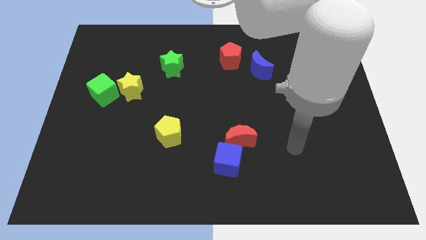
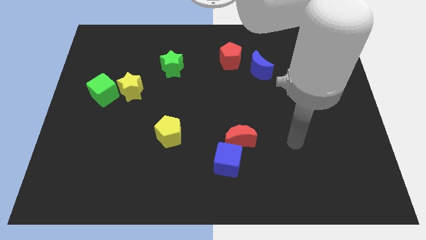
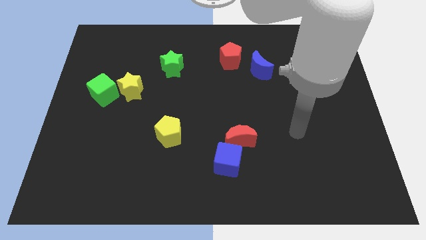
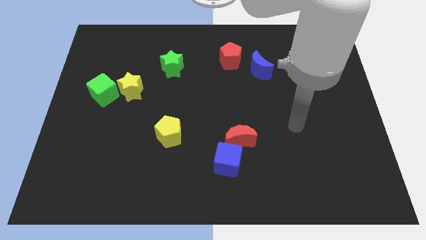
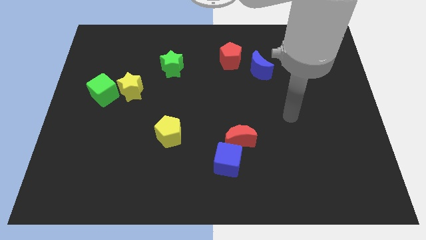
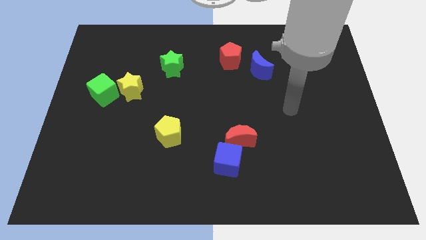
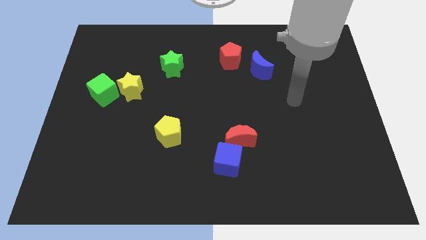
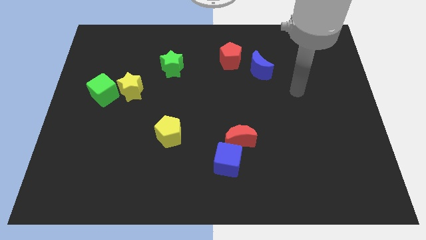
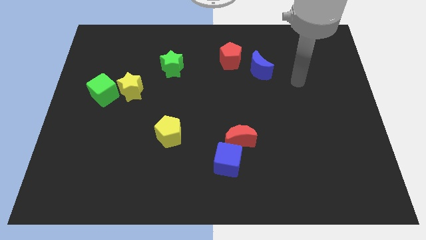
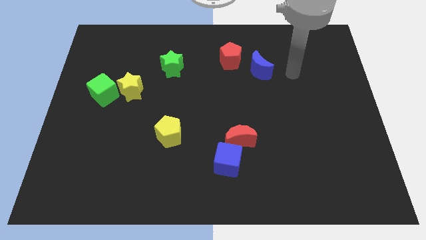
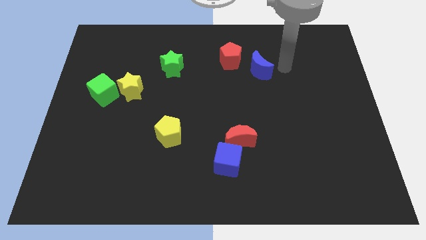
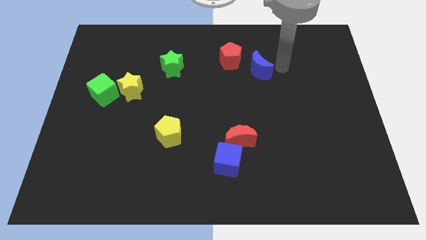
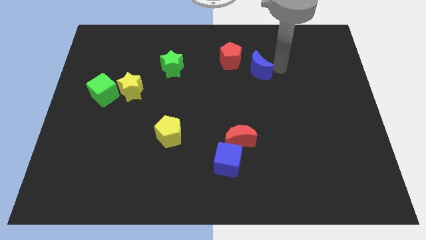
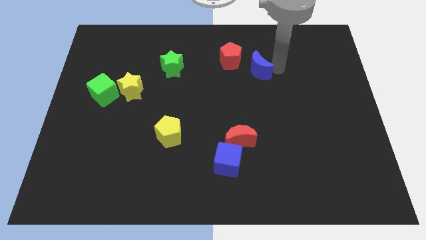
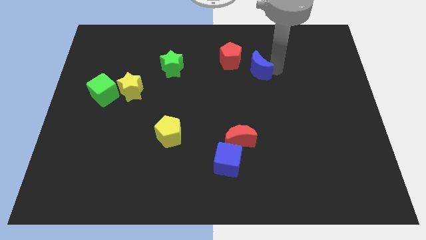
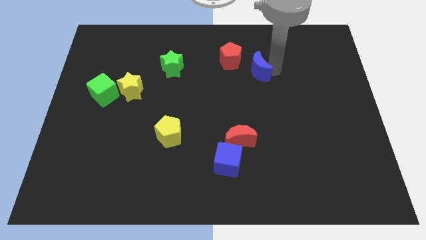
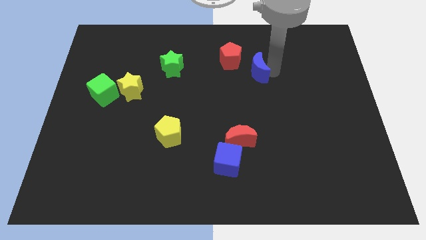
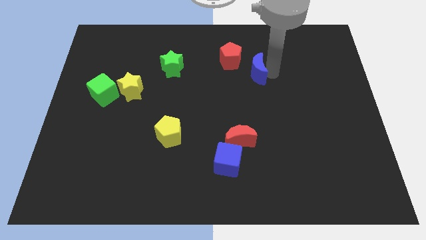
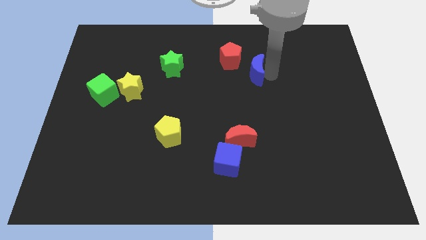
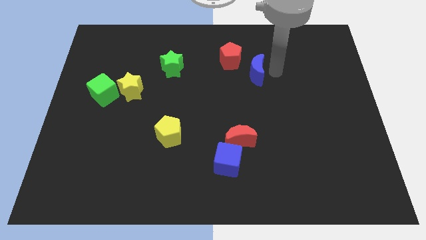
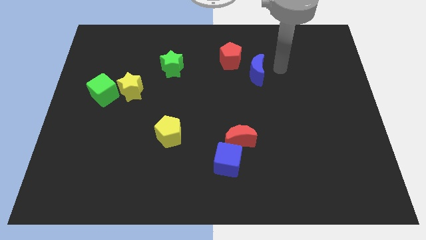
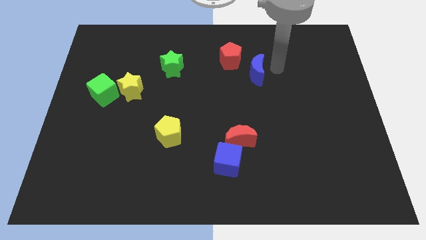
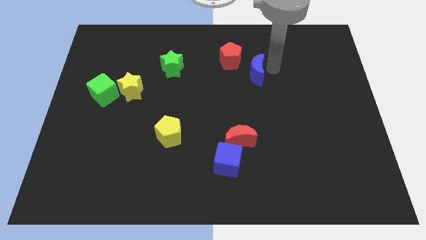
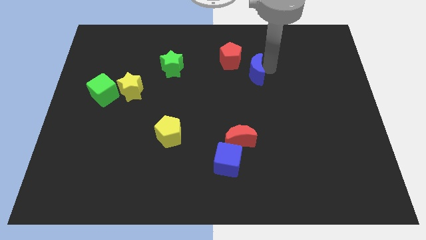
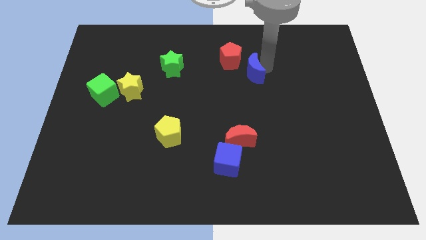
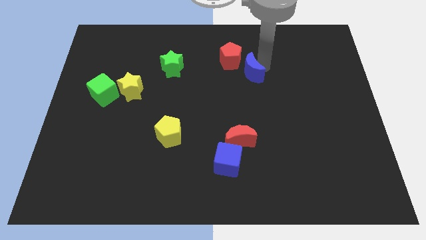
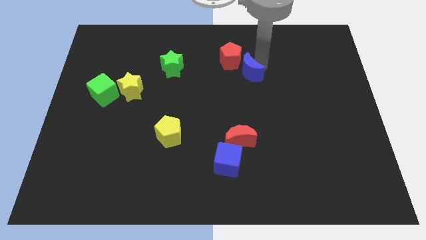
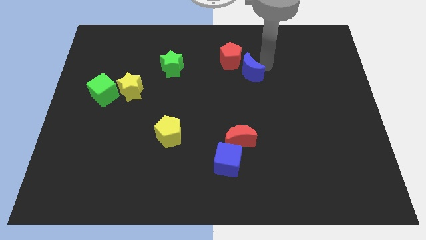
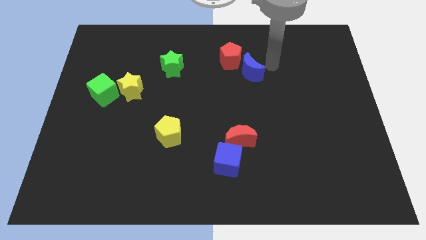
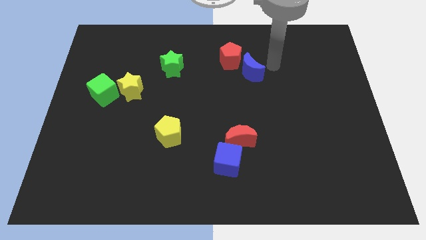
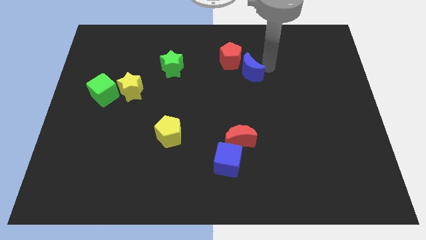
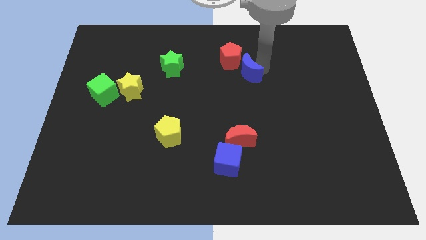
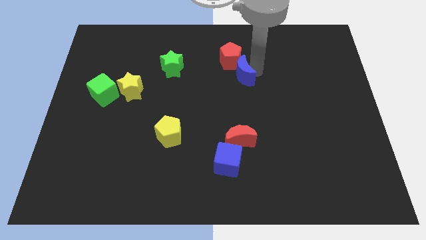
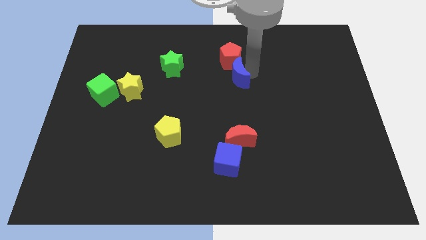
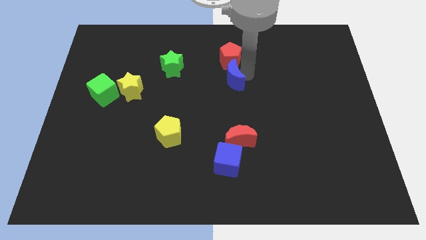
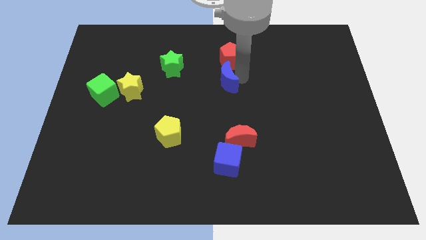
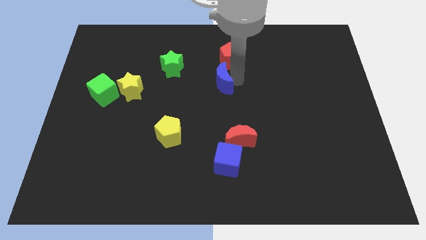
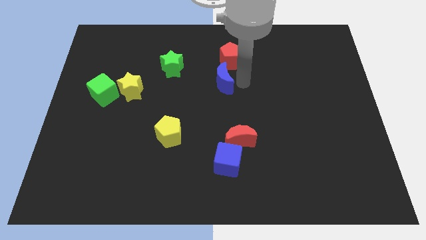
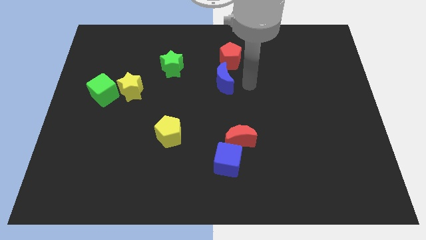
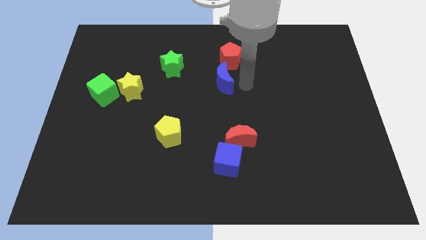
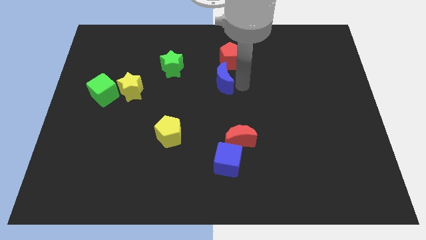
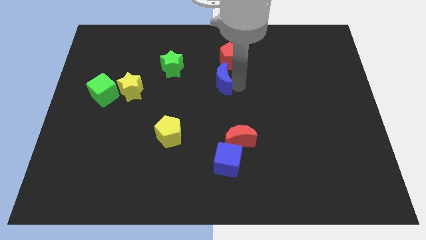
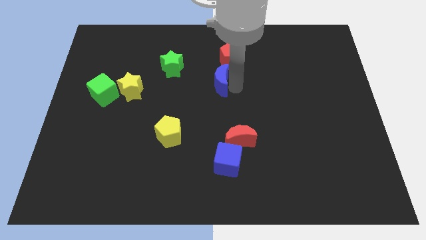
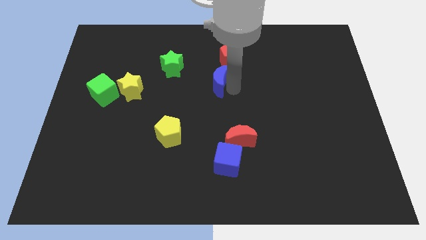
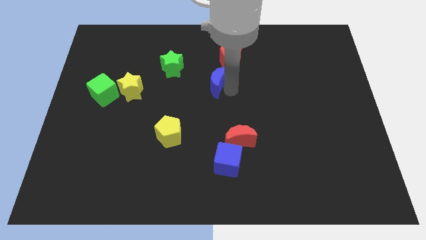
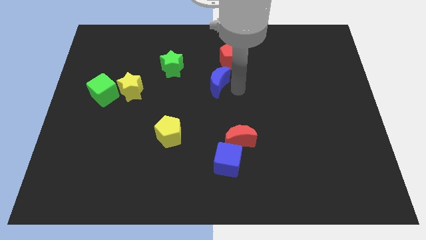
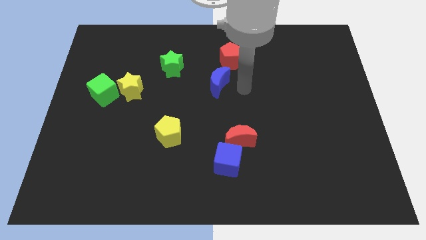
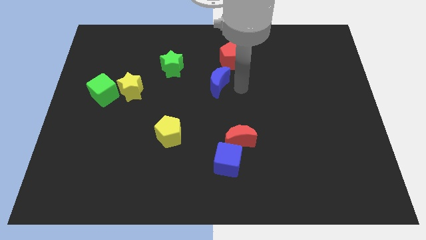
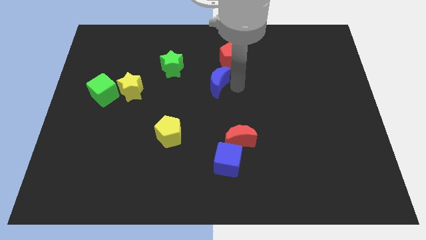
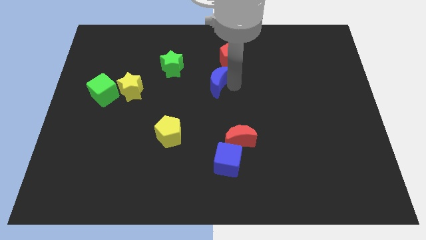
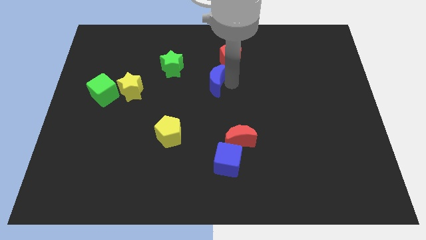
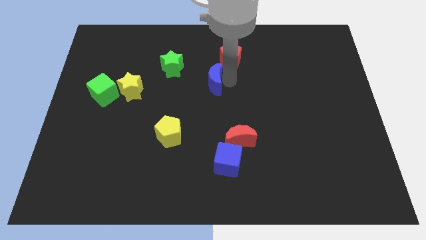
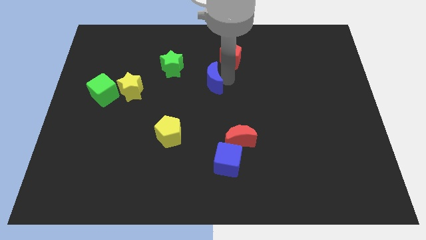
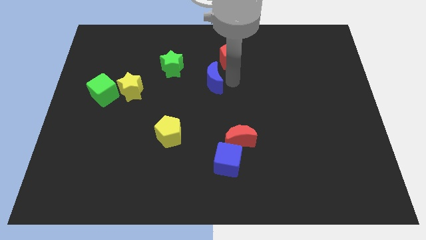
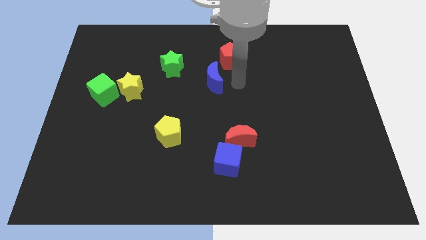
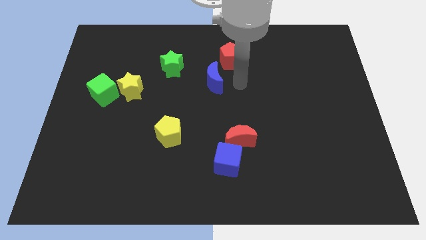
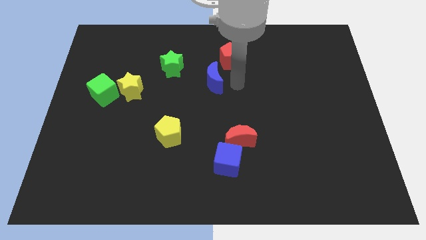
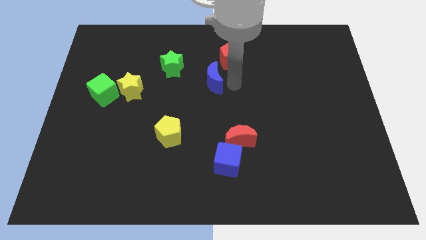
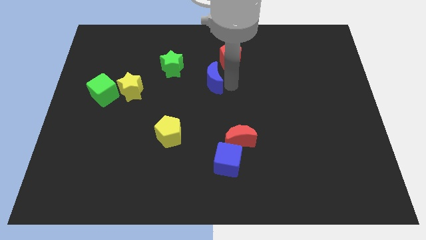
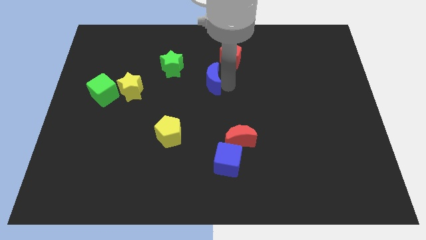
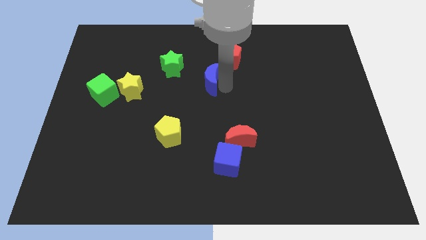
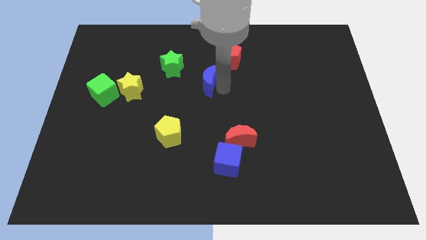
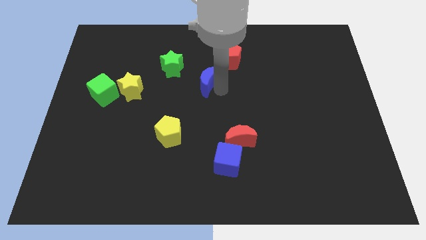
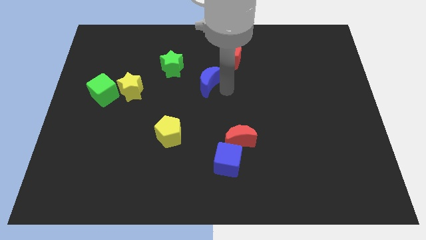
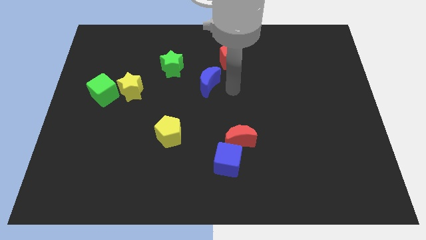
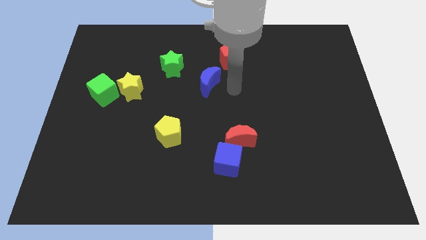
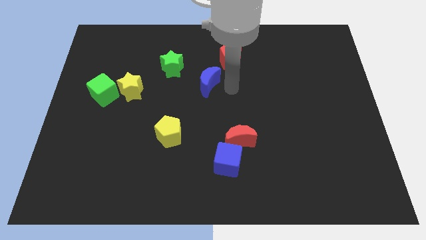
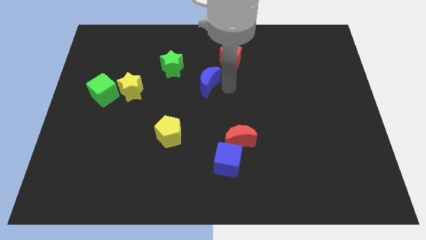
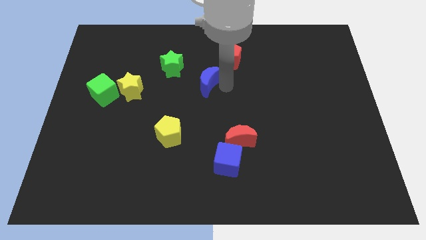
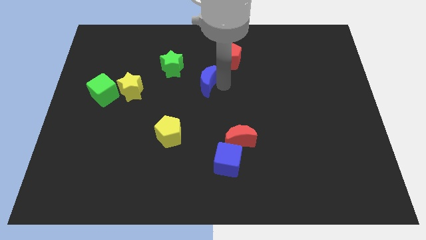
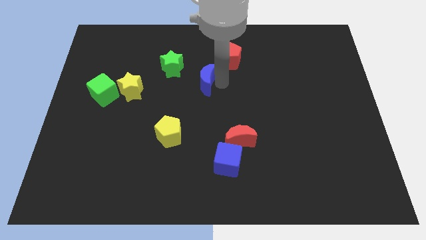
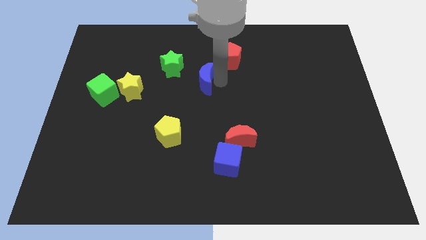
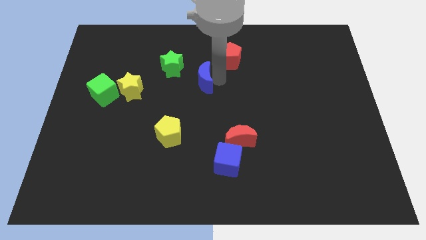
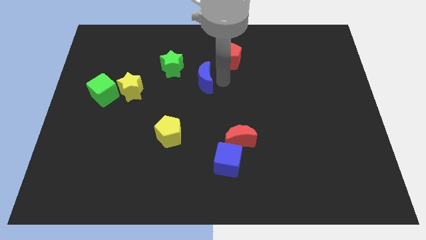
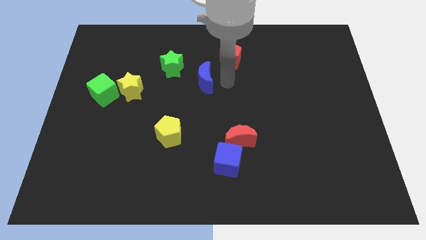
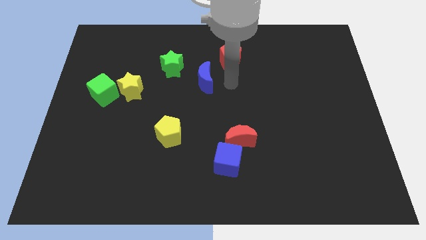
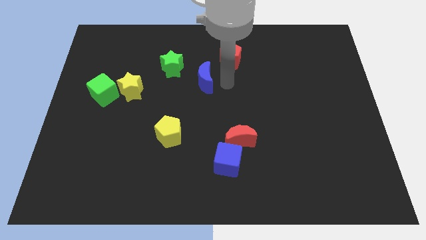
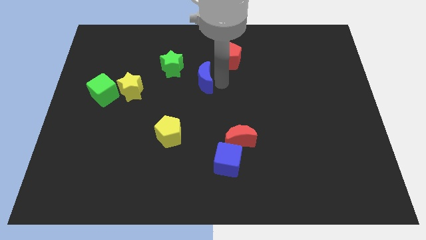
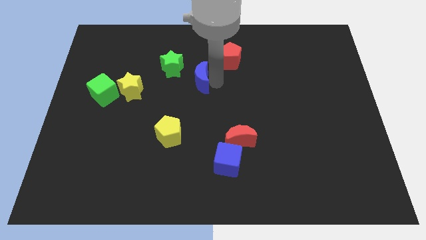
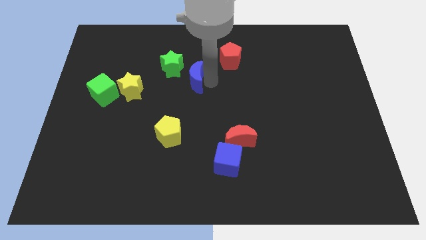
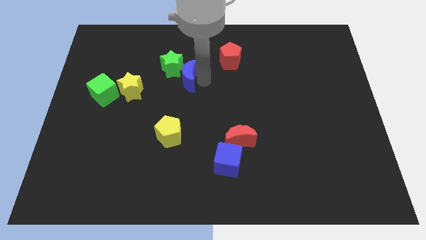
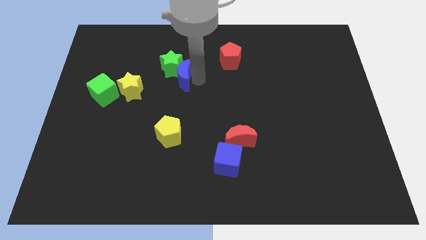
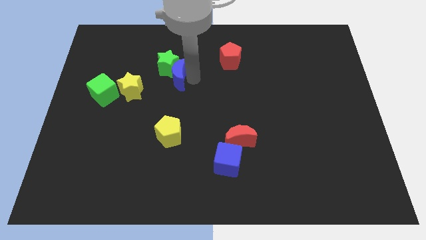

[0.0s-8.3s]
move the blue moon to the left
